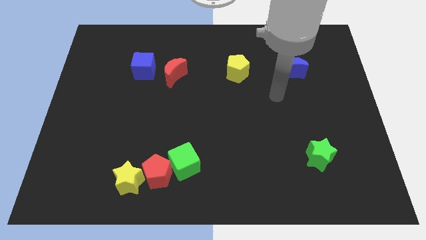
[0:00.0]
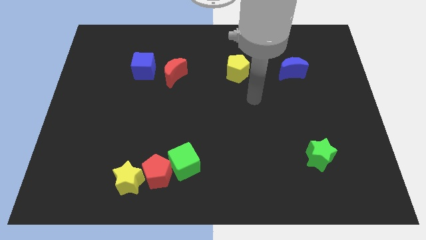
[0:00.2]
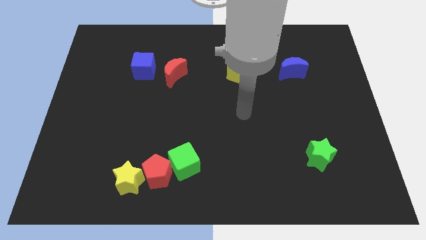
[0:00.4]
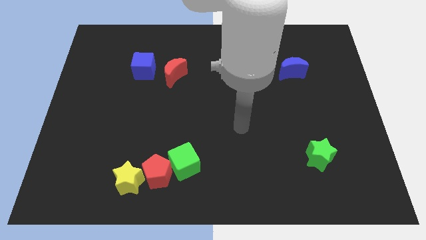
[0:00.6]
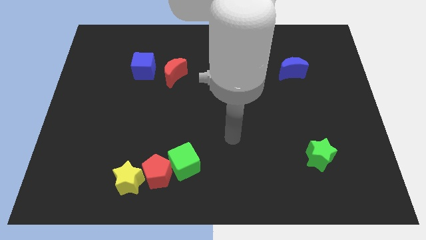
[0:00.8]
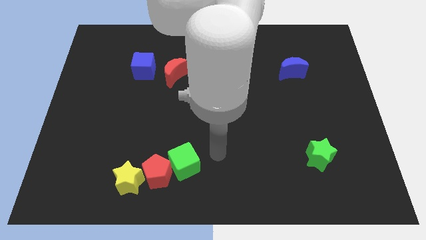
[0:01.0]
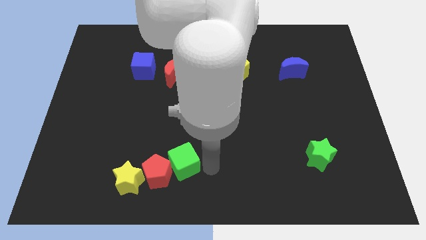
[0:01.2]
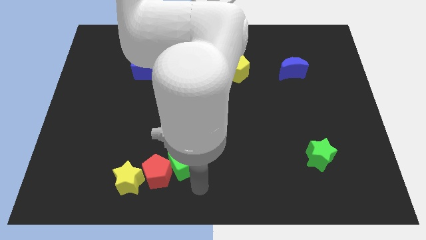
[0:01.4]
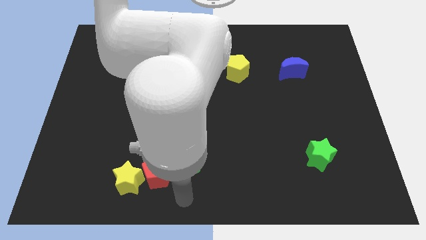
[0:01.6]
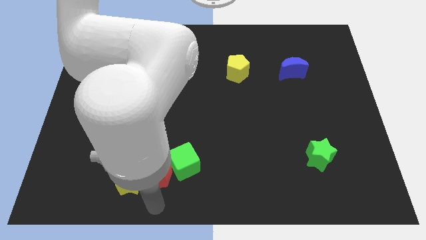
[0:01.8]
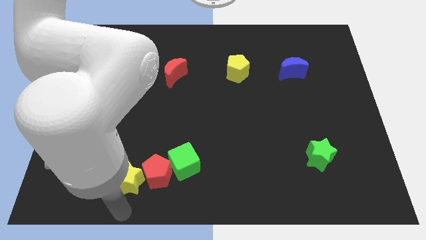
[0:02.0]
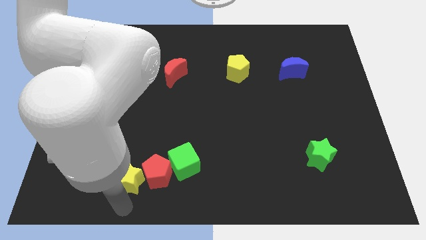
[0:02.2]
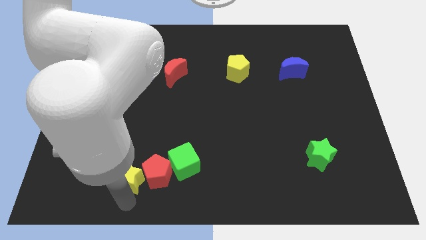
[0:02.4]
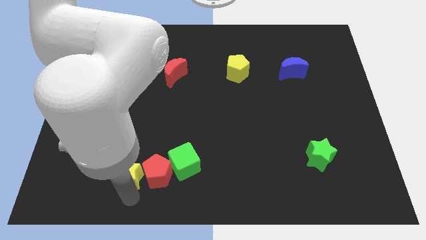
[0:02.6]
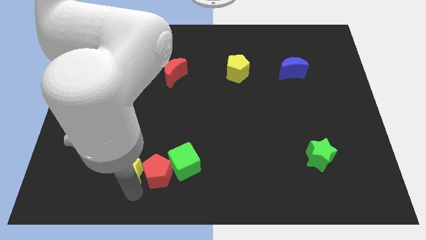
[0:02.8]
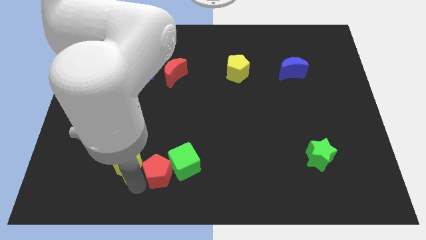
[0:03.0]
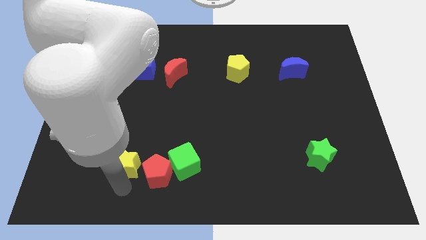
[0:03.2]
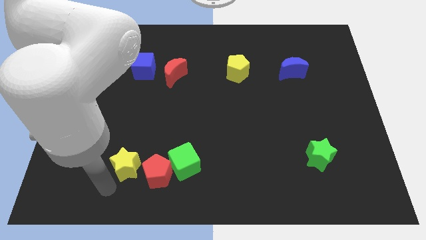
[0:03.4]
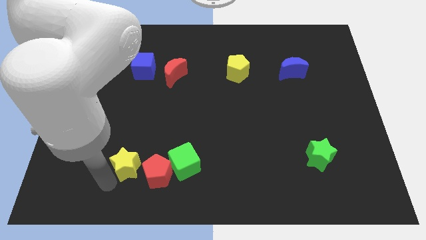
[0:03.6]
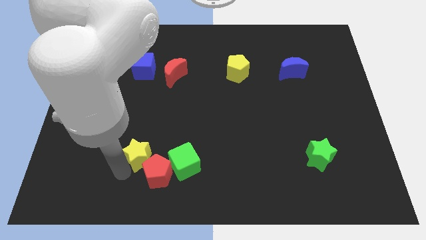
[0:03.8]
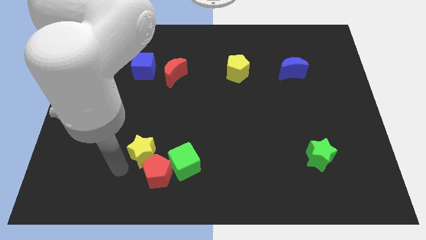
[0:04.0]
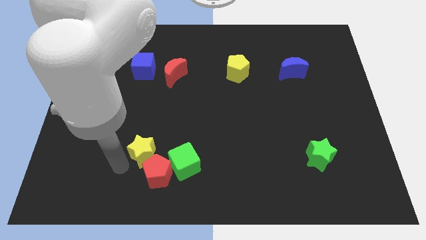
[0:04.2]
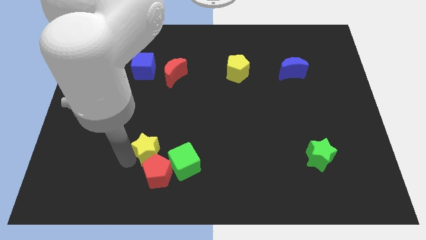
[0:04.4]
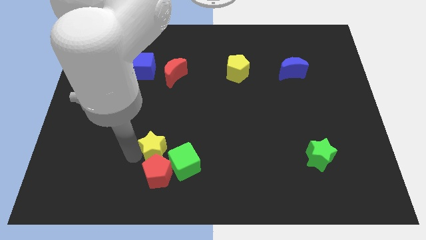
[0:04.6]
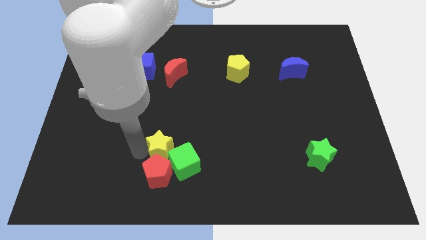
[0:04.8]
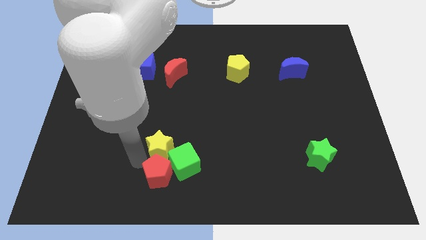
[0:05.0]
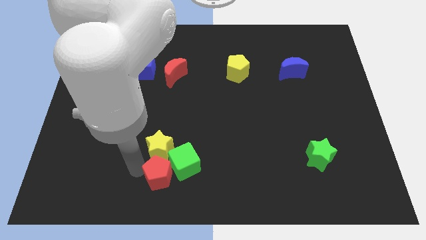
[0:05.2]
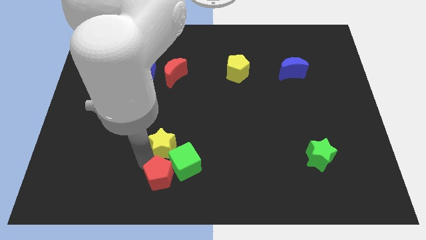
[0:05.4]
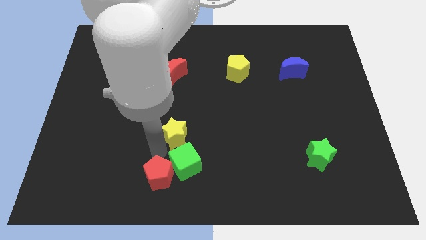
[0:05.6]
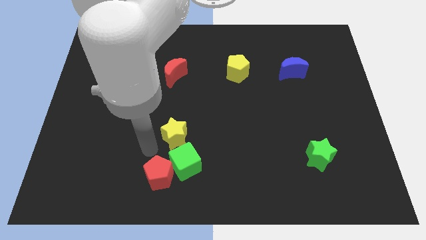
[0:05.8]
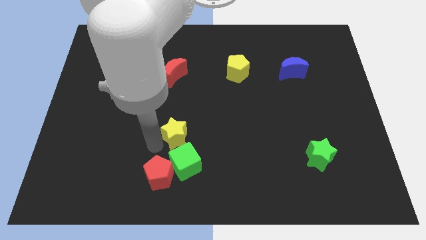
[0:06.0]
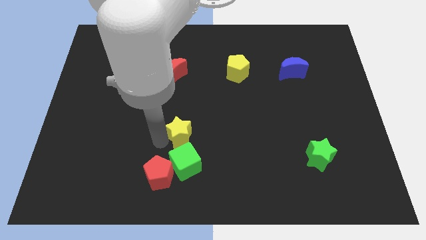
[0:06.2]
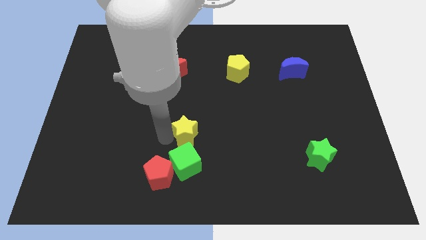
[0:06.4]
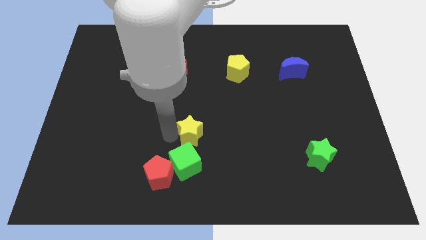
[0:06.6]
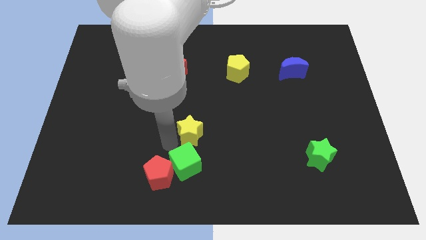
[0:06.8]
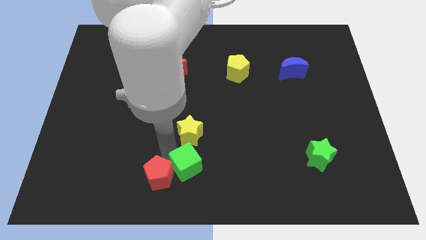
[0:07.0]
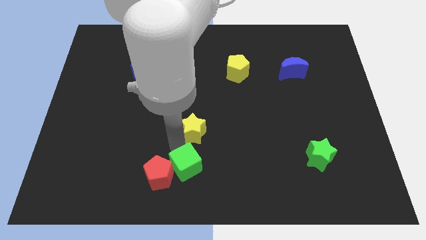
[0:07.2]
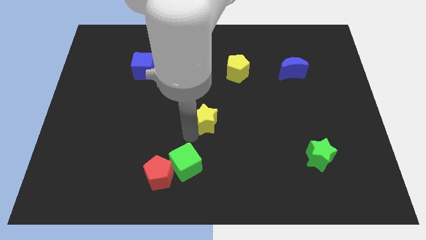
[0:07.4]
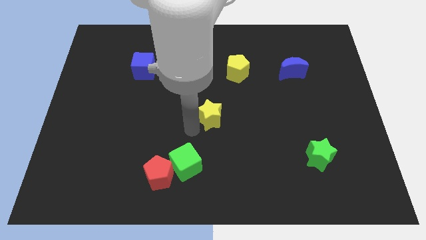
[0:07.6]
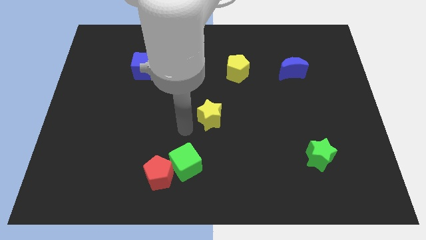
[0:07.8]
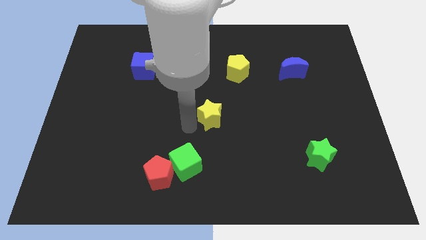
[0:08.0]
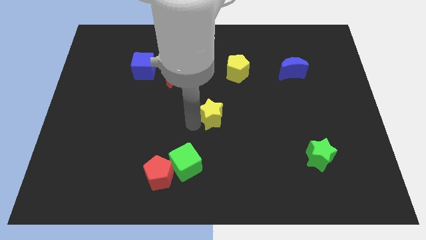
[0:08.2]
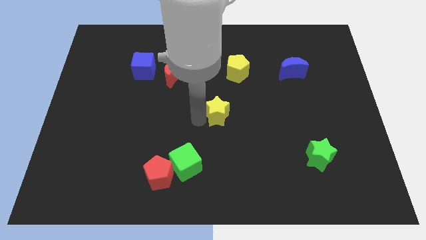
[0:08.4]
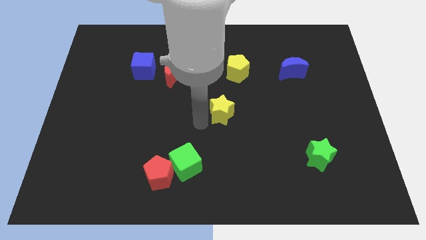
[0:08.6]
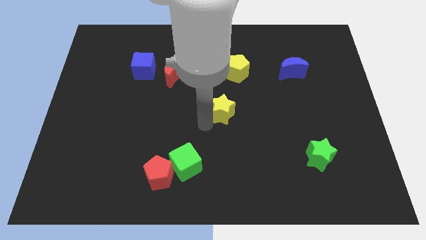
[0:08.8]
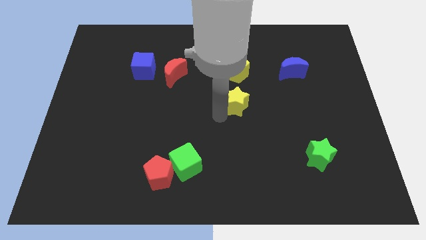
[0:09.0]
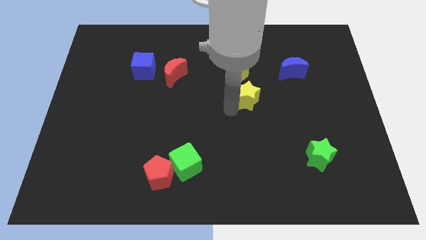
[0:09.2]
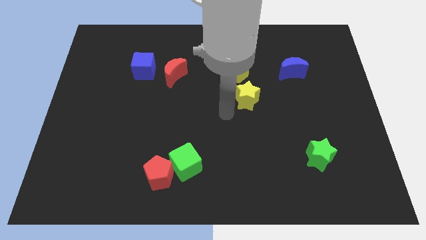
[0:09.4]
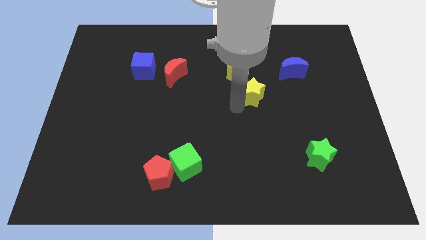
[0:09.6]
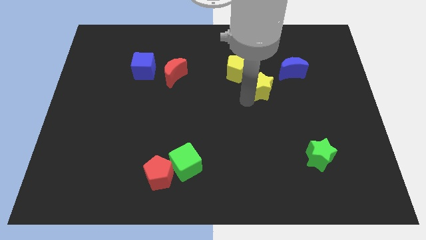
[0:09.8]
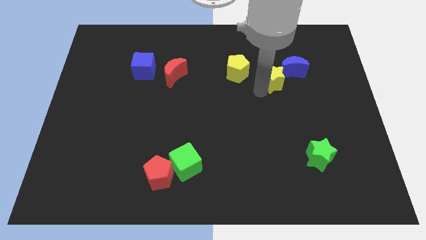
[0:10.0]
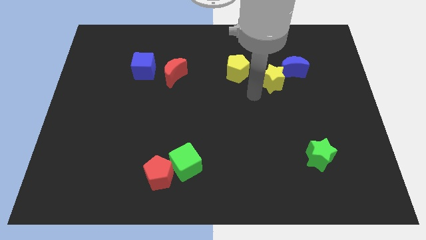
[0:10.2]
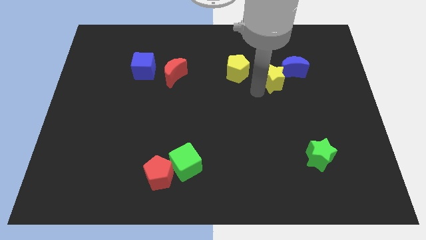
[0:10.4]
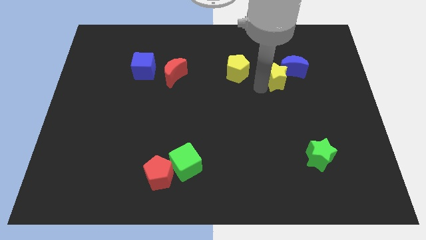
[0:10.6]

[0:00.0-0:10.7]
slide the yellow star to the blue moon

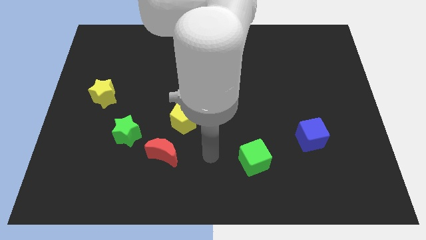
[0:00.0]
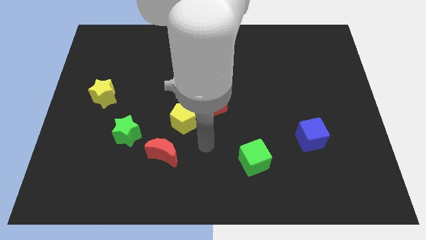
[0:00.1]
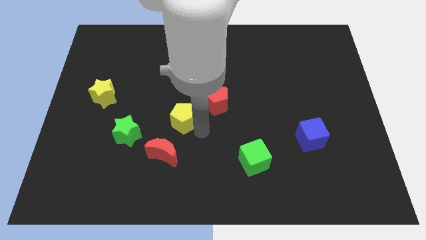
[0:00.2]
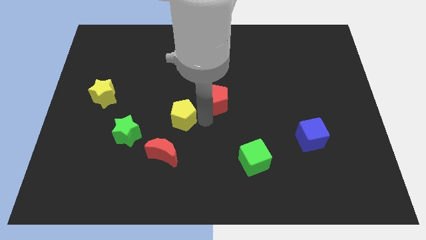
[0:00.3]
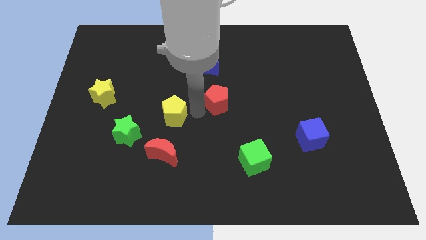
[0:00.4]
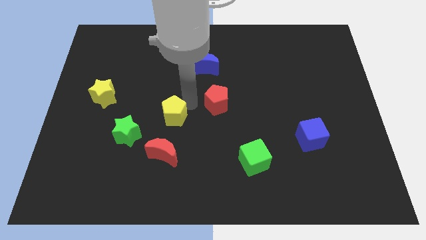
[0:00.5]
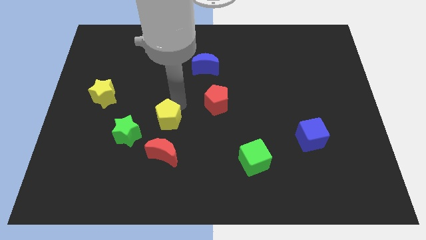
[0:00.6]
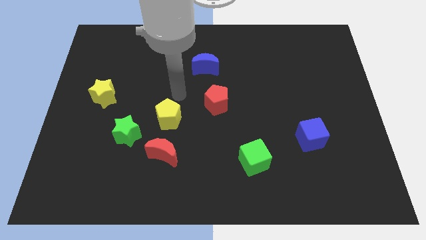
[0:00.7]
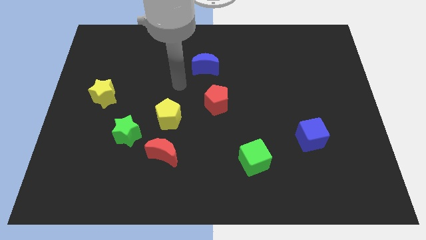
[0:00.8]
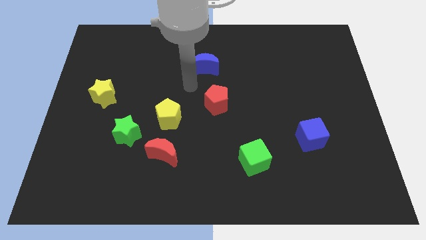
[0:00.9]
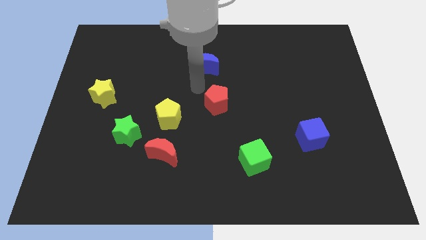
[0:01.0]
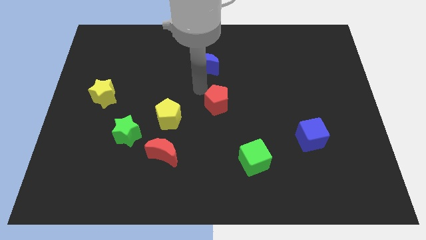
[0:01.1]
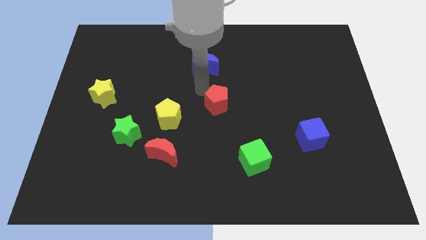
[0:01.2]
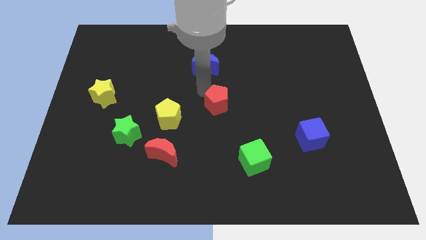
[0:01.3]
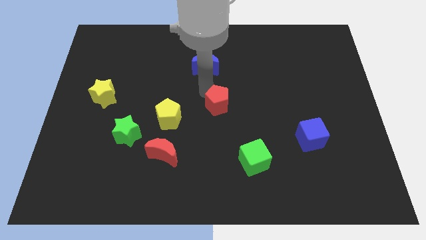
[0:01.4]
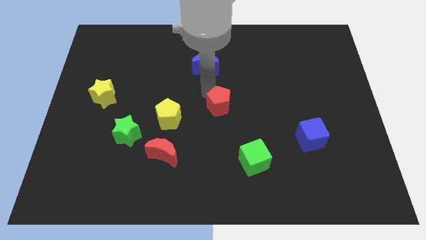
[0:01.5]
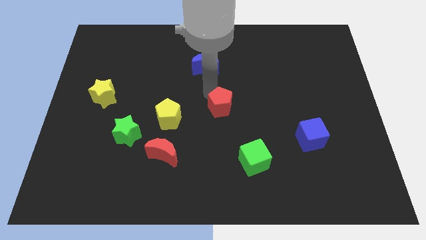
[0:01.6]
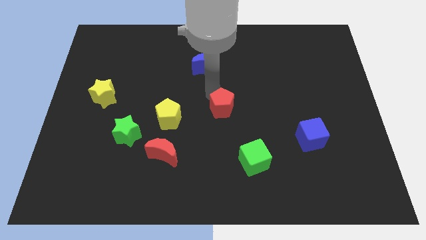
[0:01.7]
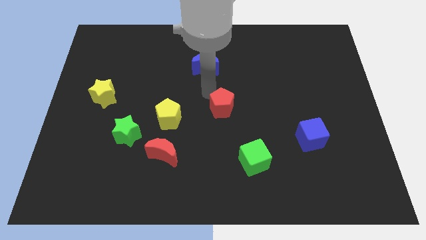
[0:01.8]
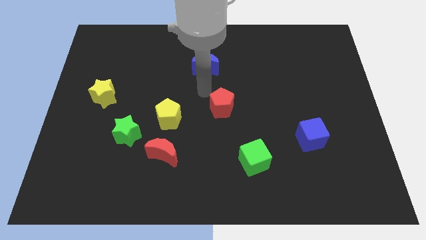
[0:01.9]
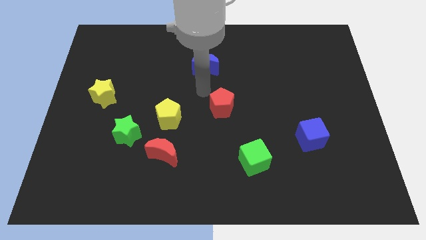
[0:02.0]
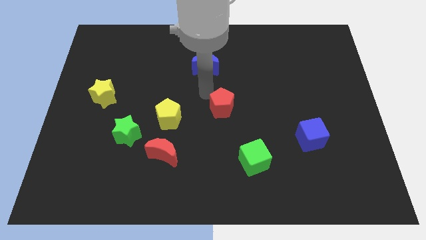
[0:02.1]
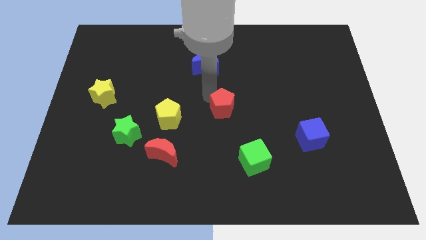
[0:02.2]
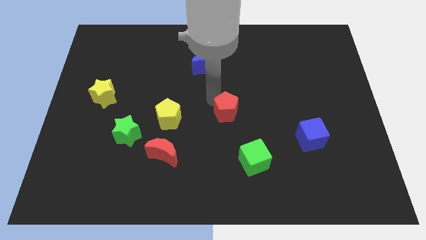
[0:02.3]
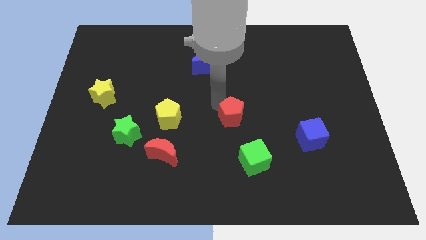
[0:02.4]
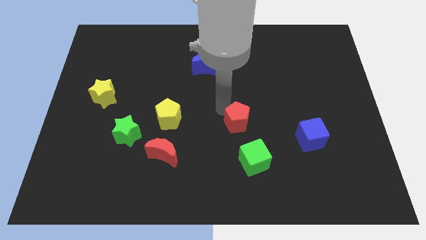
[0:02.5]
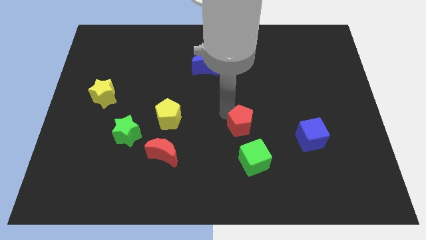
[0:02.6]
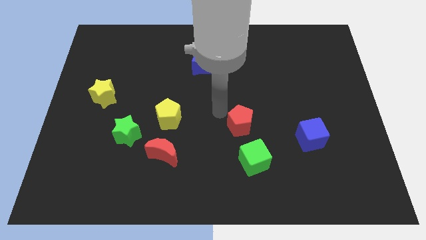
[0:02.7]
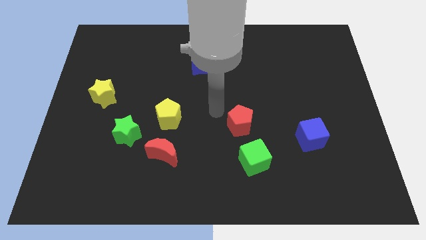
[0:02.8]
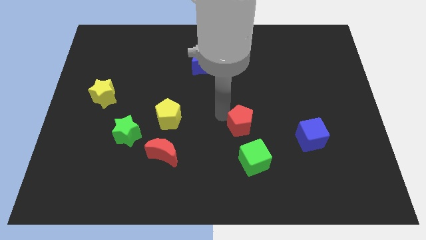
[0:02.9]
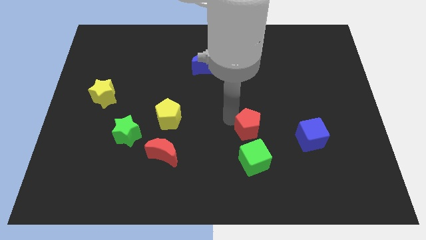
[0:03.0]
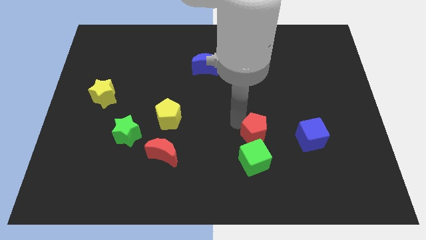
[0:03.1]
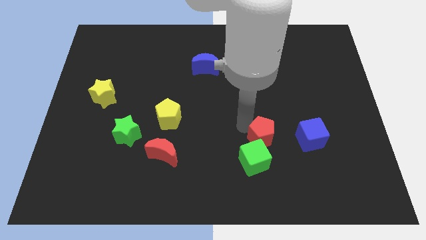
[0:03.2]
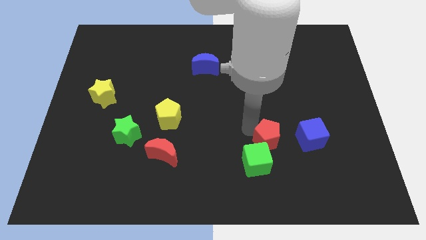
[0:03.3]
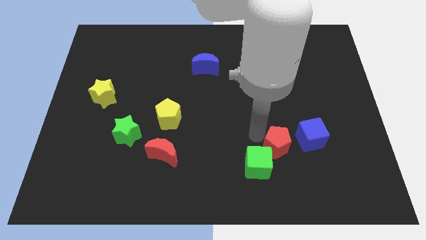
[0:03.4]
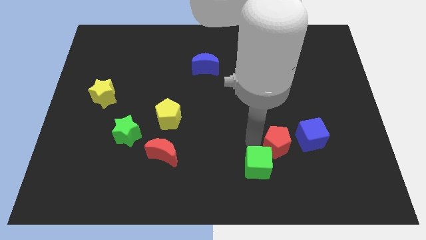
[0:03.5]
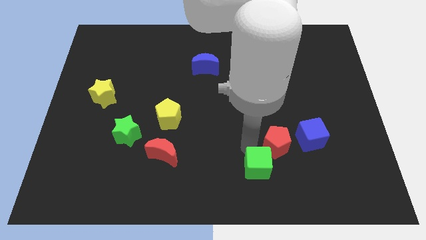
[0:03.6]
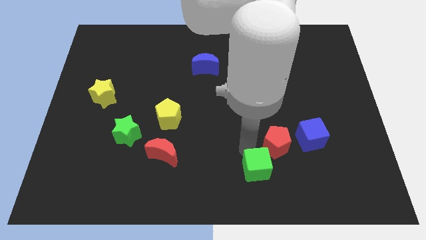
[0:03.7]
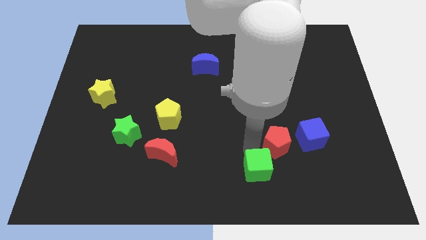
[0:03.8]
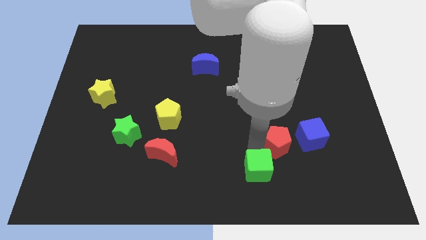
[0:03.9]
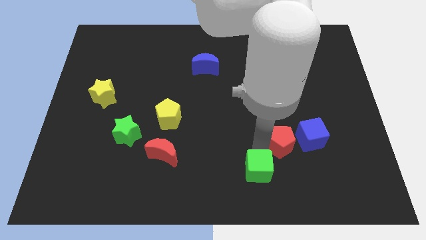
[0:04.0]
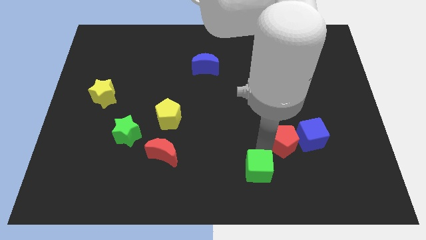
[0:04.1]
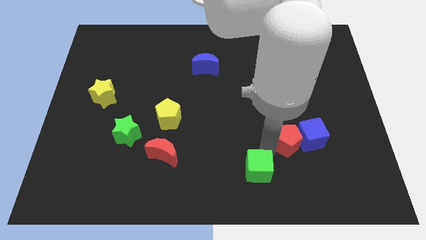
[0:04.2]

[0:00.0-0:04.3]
put the red pentagon close to the blue cube
